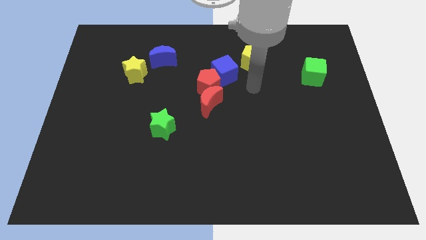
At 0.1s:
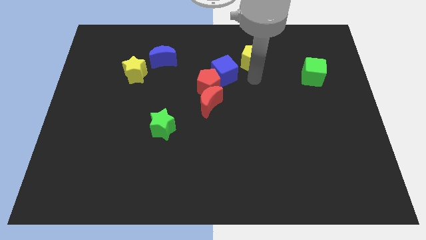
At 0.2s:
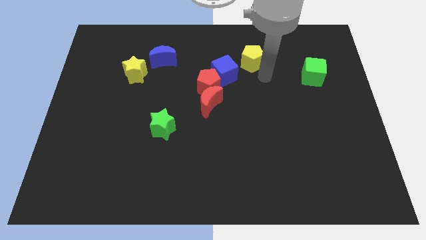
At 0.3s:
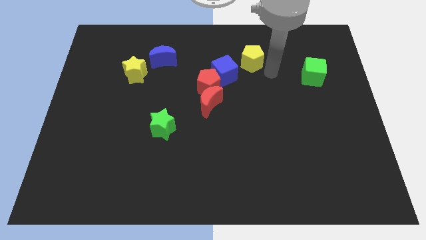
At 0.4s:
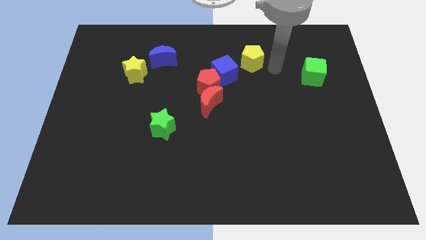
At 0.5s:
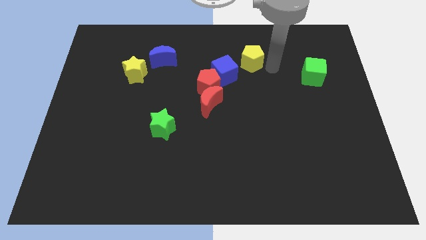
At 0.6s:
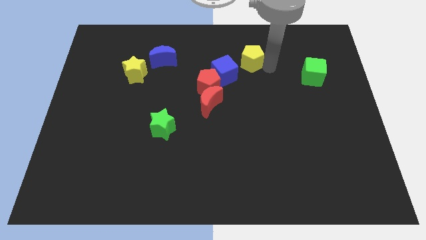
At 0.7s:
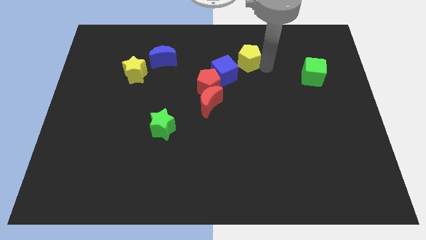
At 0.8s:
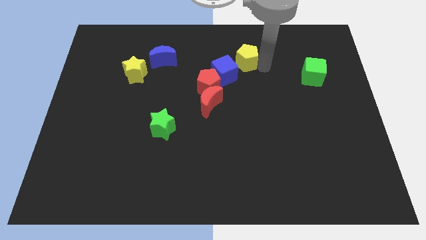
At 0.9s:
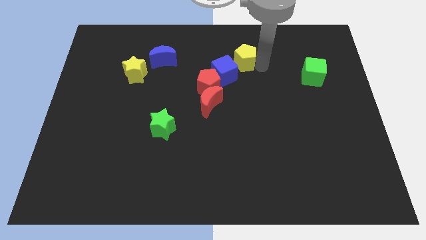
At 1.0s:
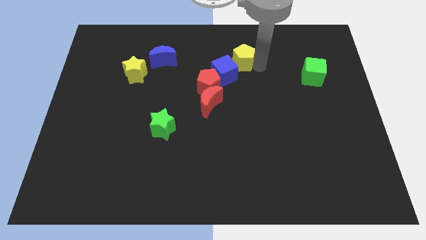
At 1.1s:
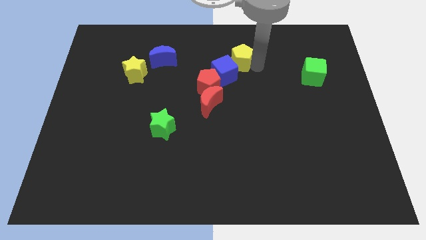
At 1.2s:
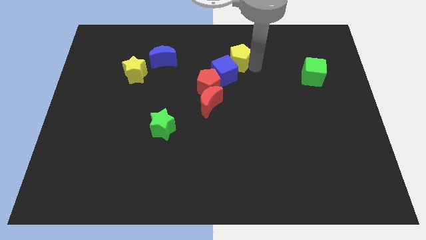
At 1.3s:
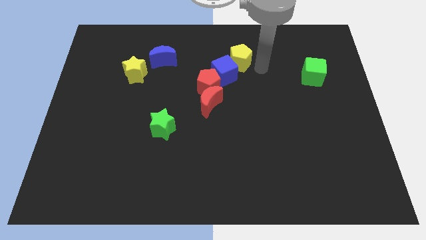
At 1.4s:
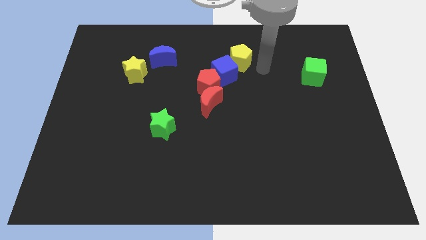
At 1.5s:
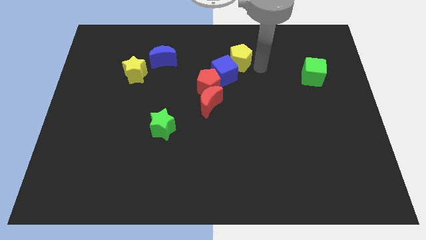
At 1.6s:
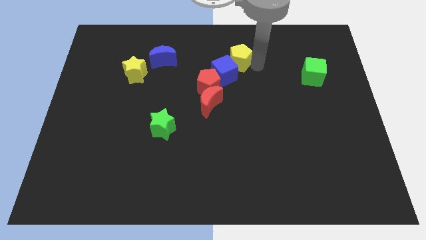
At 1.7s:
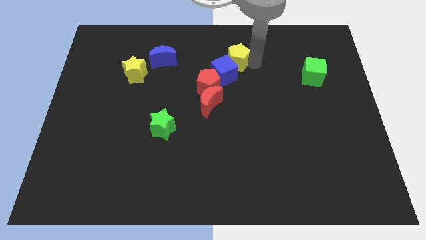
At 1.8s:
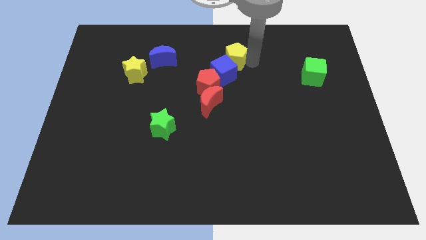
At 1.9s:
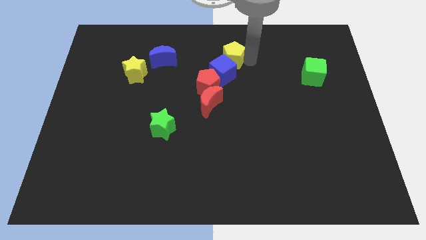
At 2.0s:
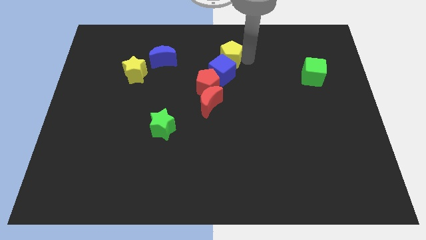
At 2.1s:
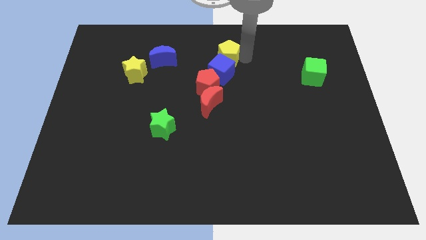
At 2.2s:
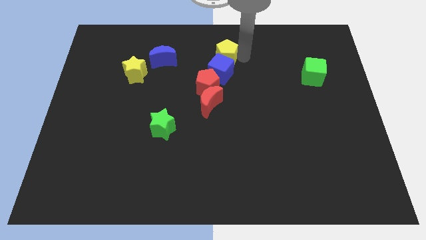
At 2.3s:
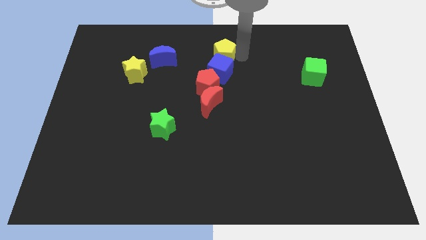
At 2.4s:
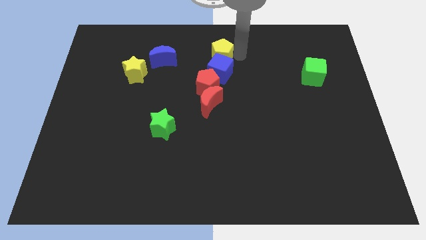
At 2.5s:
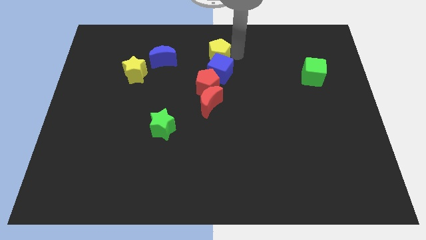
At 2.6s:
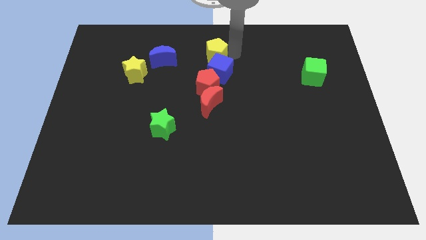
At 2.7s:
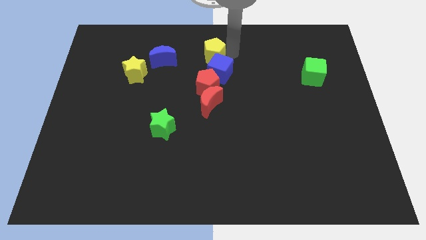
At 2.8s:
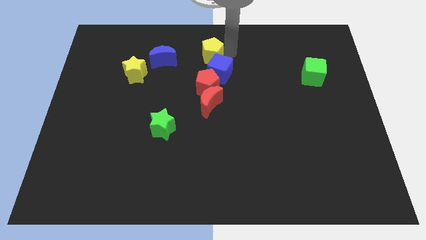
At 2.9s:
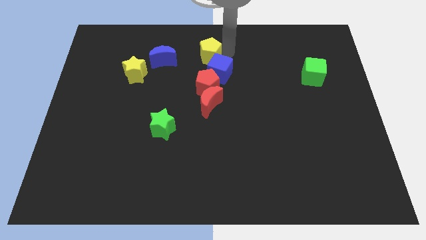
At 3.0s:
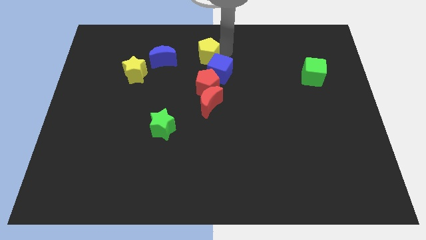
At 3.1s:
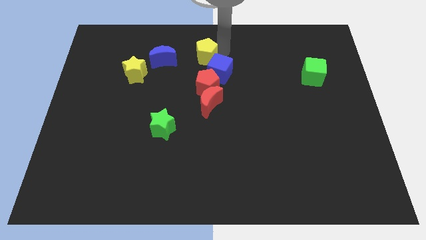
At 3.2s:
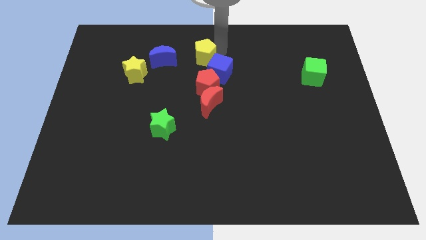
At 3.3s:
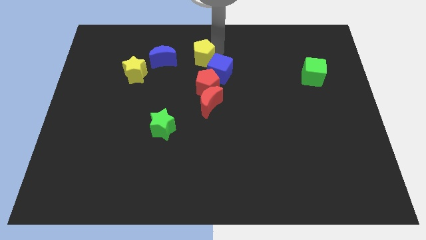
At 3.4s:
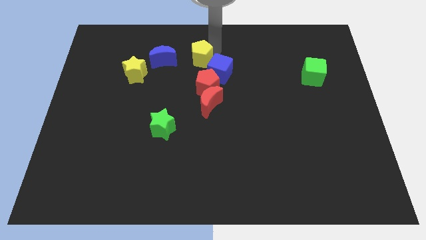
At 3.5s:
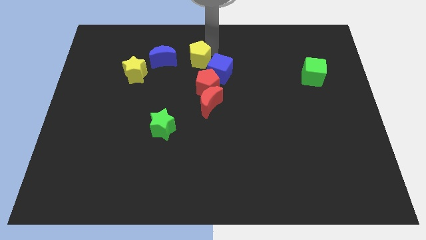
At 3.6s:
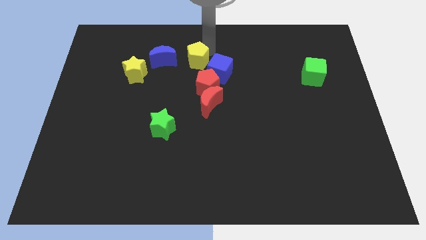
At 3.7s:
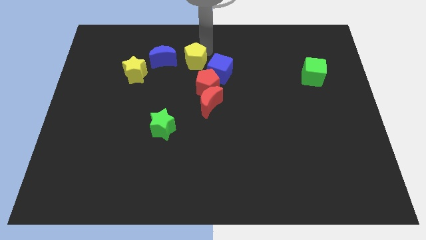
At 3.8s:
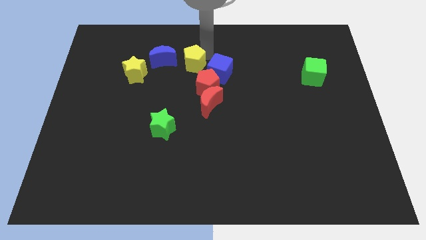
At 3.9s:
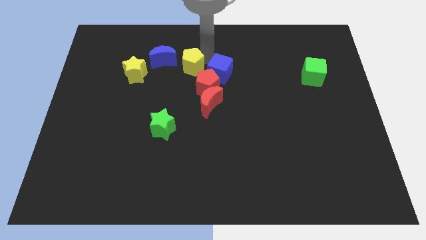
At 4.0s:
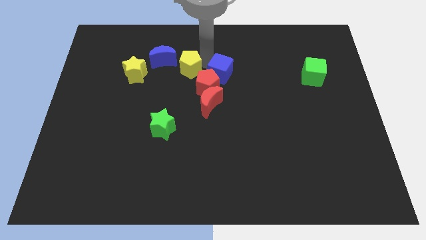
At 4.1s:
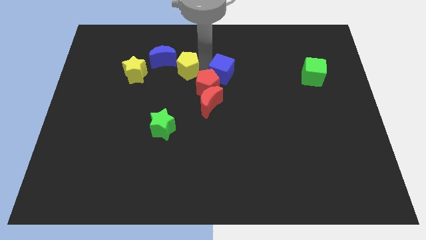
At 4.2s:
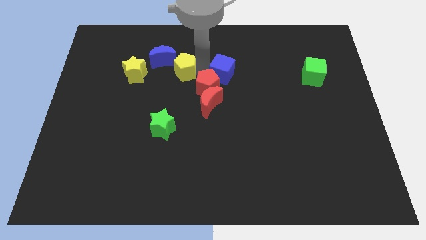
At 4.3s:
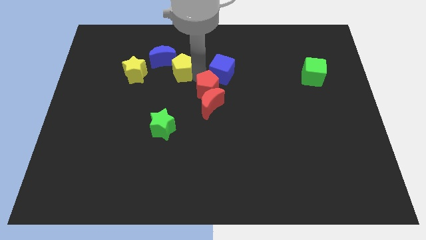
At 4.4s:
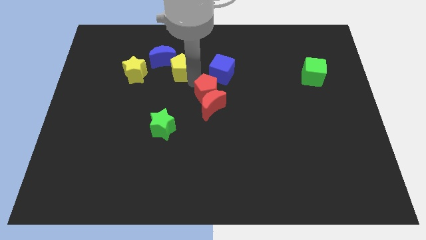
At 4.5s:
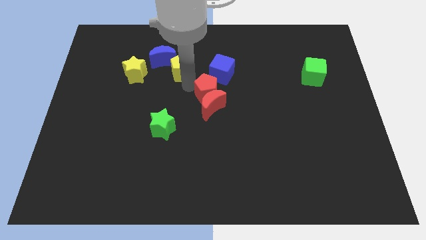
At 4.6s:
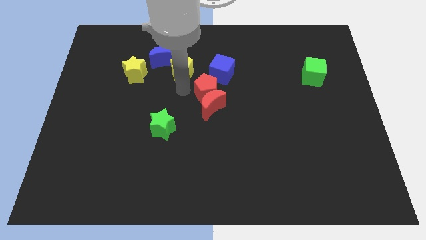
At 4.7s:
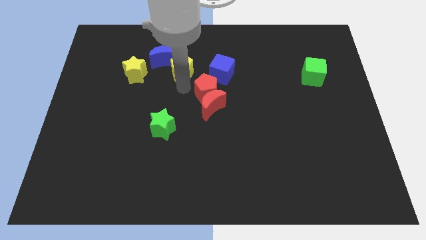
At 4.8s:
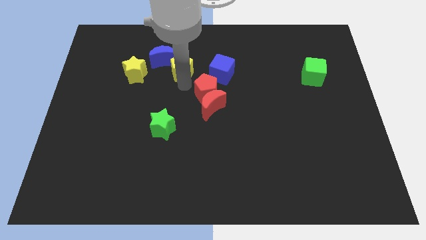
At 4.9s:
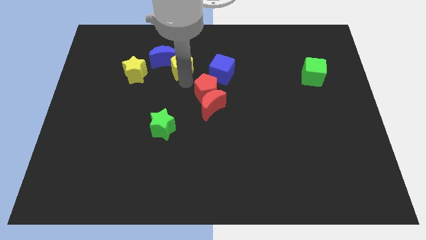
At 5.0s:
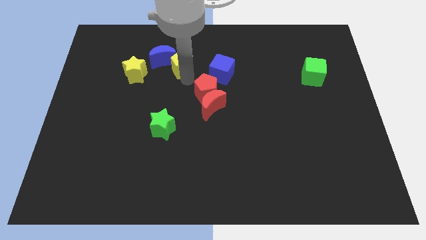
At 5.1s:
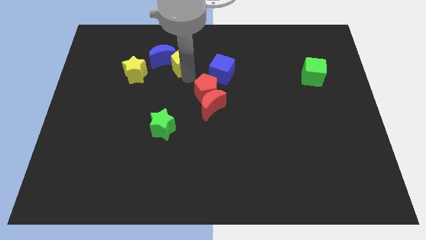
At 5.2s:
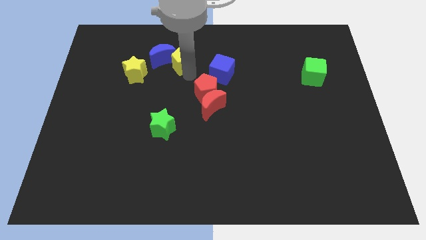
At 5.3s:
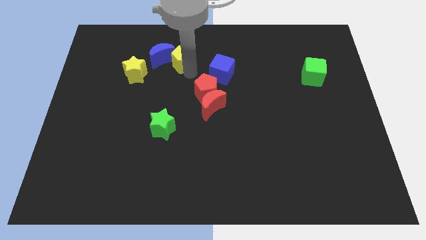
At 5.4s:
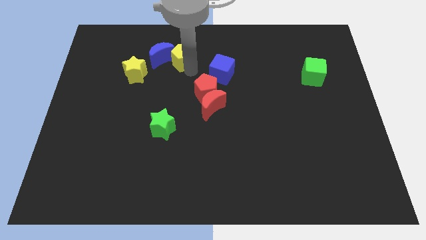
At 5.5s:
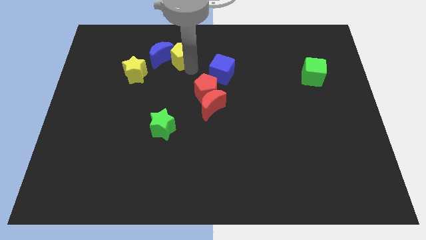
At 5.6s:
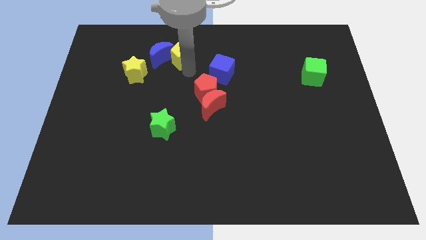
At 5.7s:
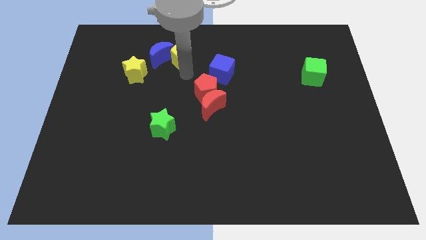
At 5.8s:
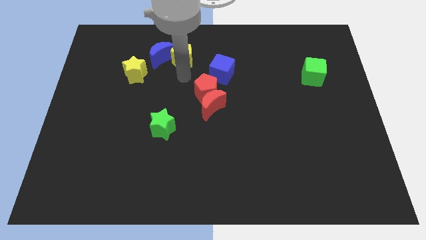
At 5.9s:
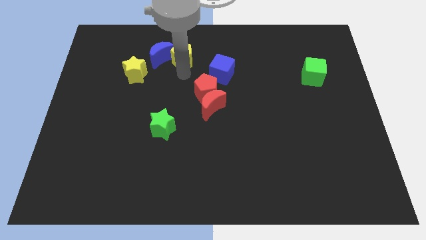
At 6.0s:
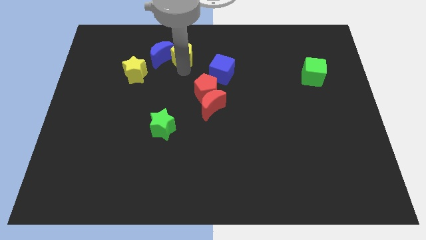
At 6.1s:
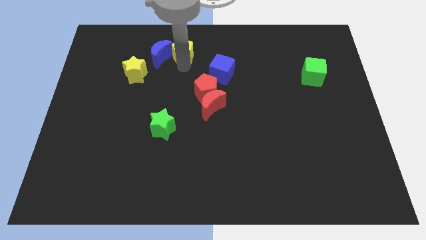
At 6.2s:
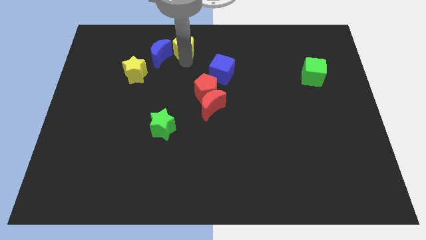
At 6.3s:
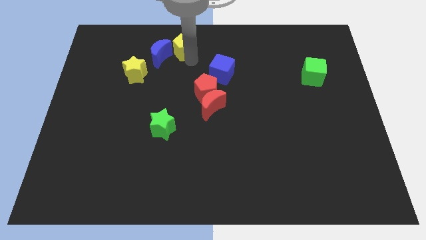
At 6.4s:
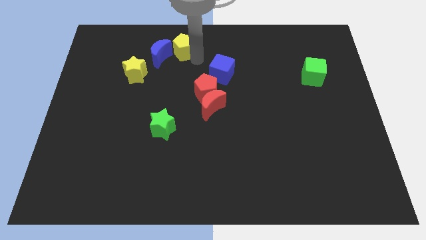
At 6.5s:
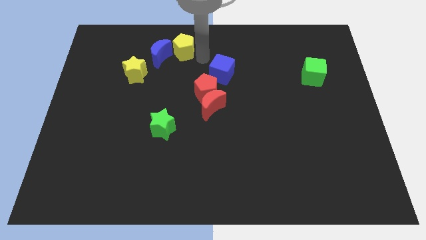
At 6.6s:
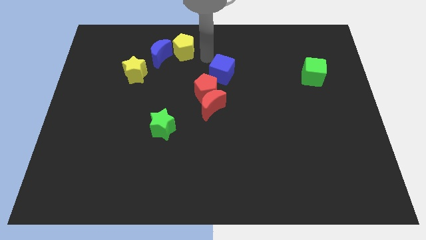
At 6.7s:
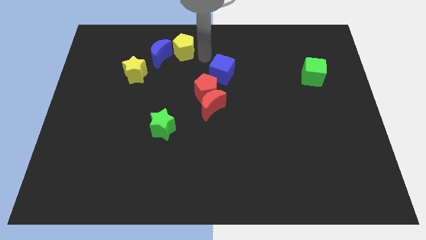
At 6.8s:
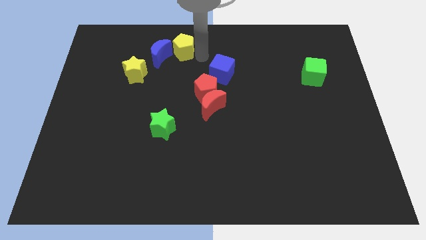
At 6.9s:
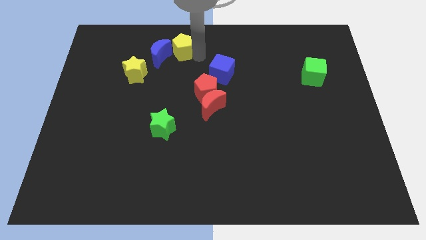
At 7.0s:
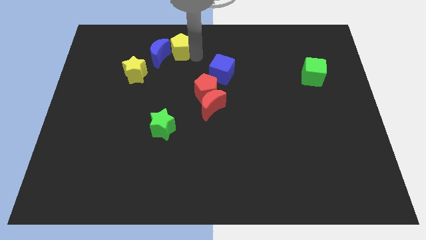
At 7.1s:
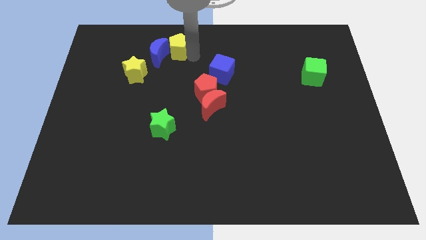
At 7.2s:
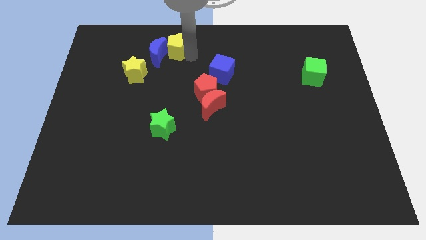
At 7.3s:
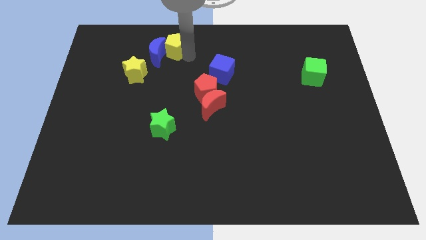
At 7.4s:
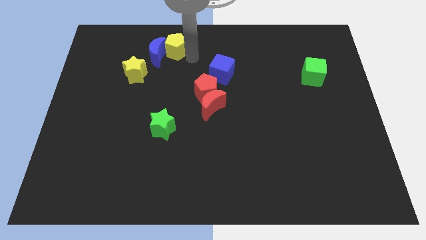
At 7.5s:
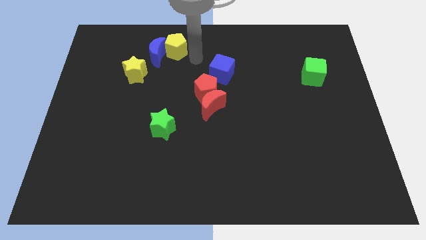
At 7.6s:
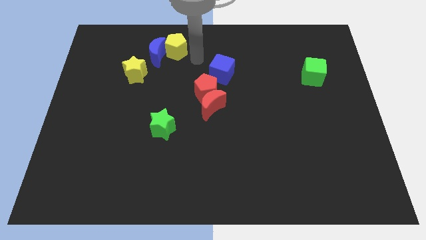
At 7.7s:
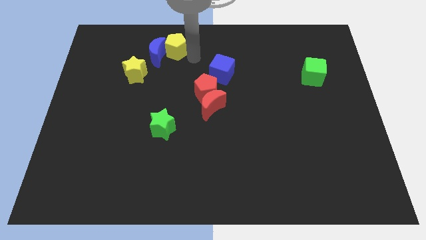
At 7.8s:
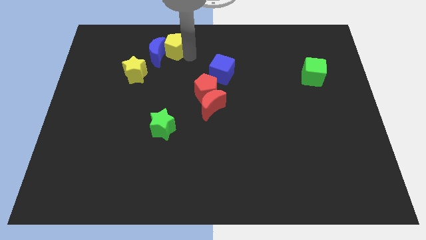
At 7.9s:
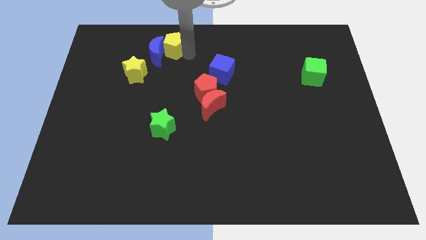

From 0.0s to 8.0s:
slide the yellow pentagon to the left

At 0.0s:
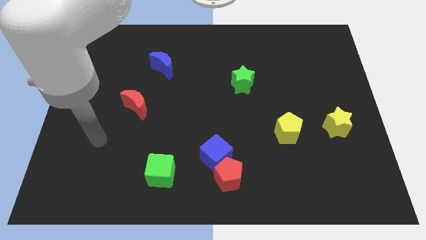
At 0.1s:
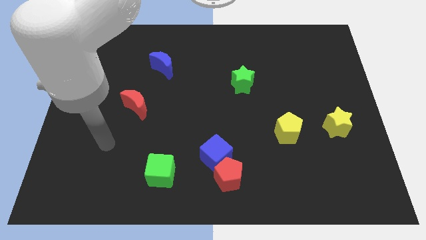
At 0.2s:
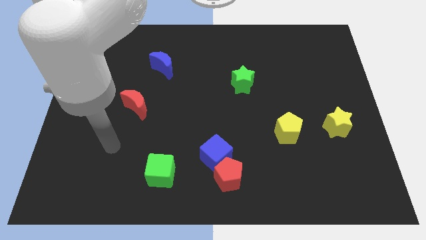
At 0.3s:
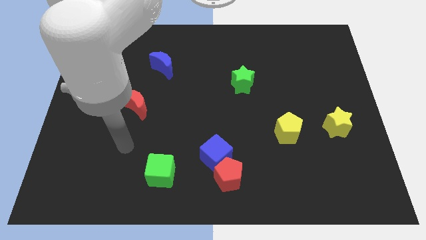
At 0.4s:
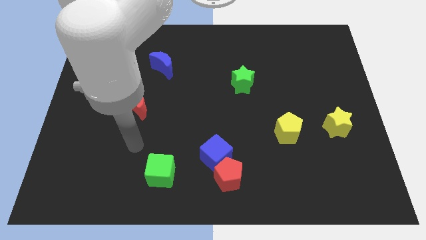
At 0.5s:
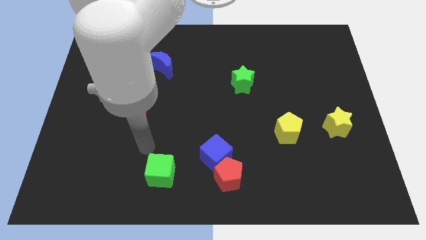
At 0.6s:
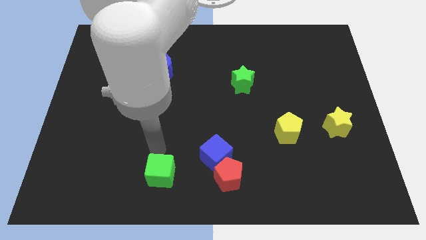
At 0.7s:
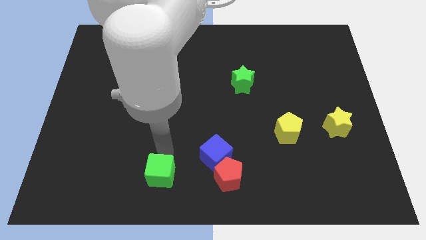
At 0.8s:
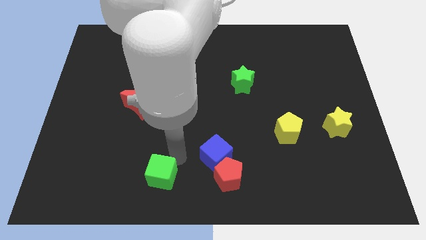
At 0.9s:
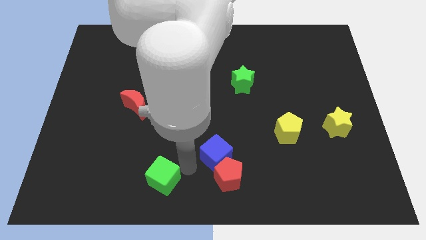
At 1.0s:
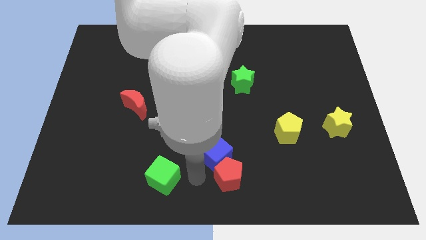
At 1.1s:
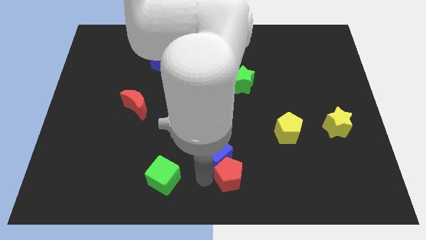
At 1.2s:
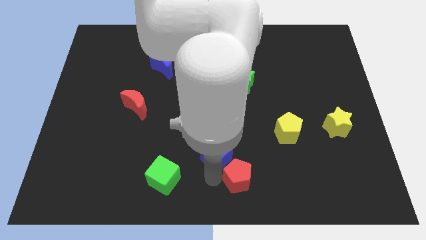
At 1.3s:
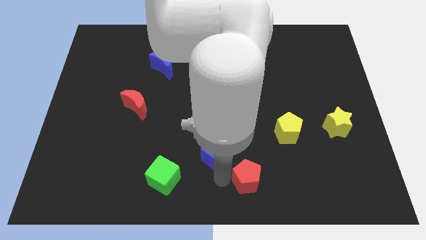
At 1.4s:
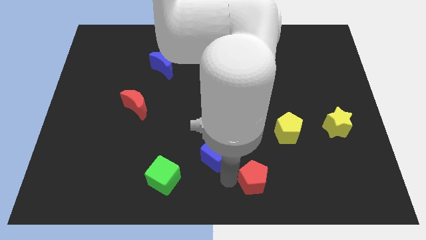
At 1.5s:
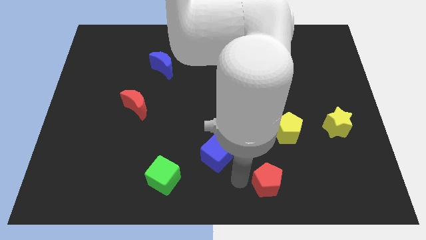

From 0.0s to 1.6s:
move the red pentagon to the right a little
